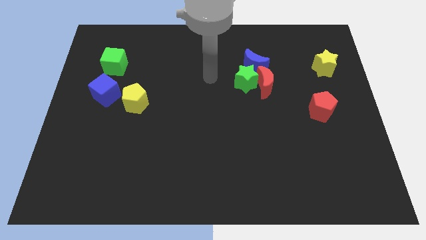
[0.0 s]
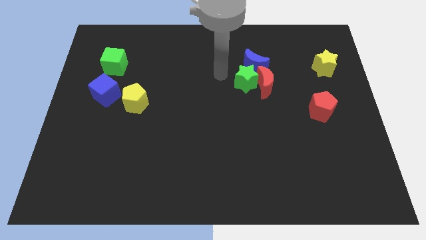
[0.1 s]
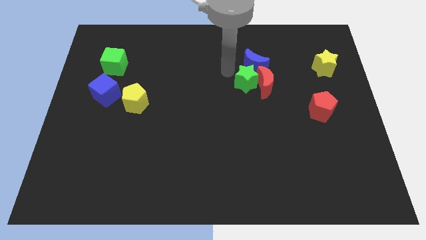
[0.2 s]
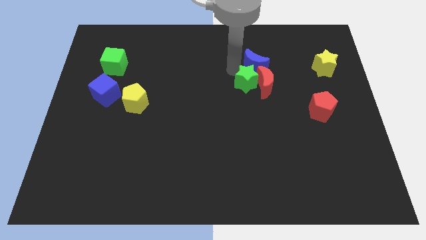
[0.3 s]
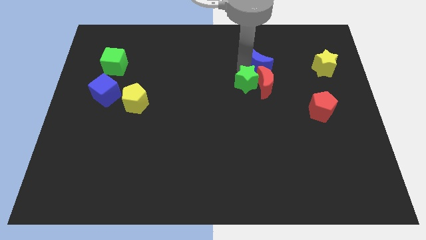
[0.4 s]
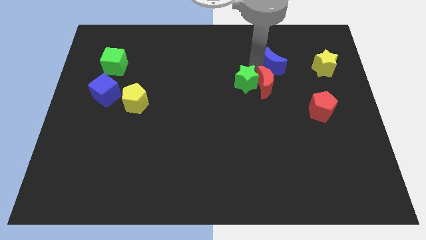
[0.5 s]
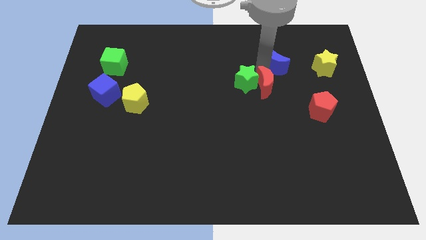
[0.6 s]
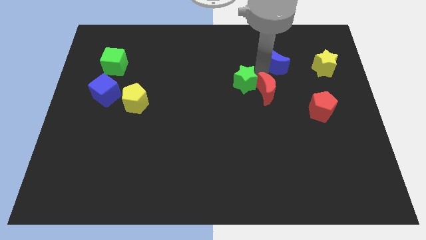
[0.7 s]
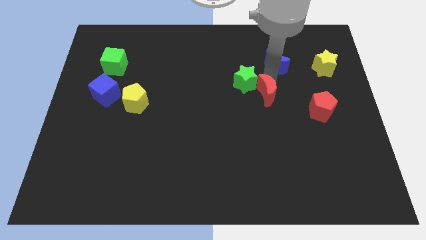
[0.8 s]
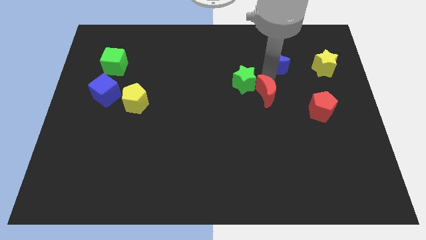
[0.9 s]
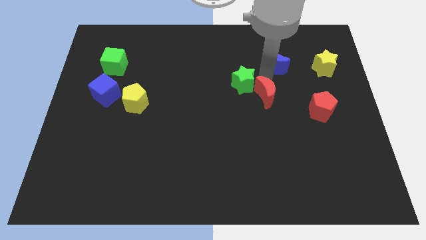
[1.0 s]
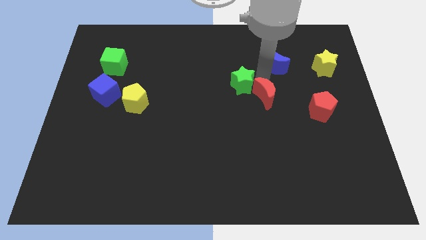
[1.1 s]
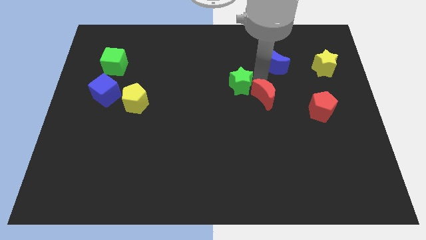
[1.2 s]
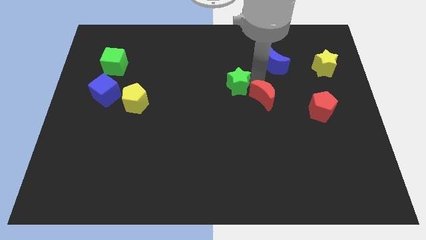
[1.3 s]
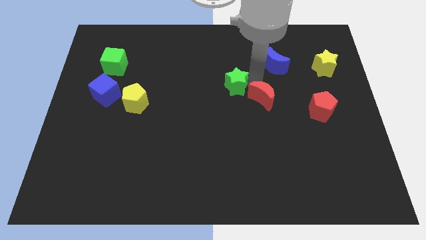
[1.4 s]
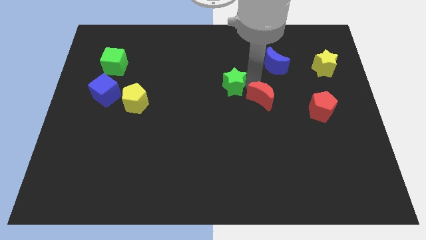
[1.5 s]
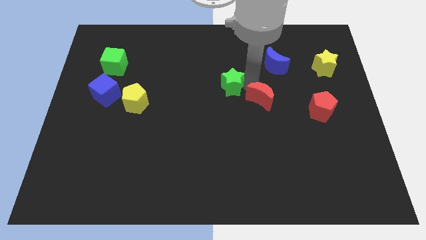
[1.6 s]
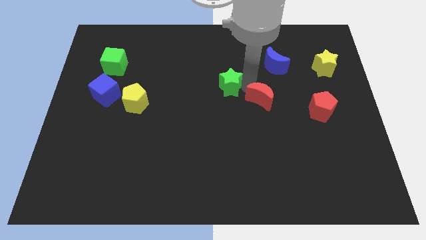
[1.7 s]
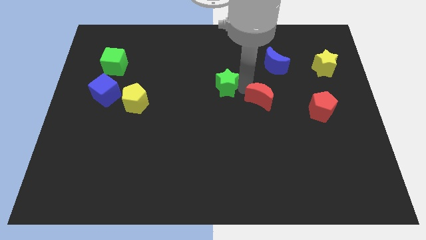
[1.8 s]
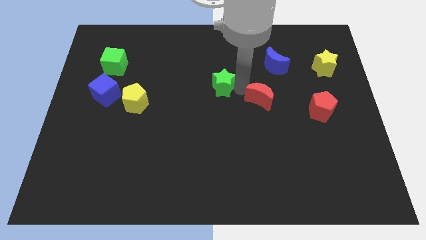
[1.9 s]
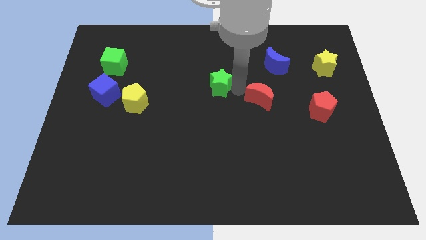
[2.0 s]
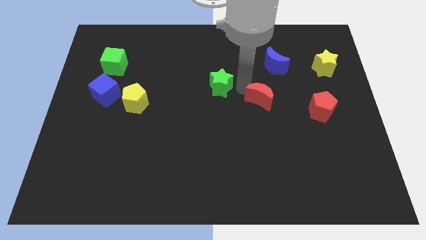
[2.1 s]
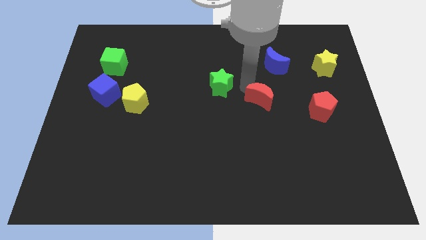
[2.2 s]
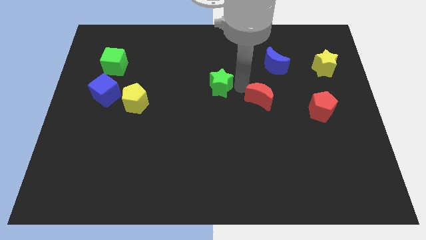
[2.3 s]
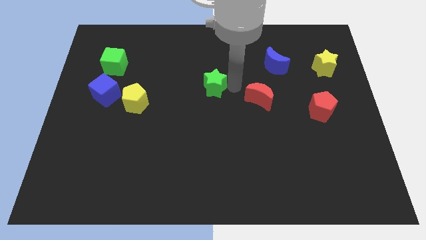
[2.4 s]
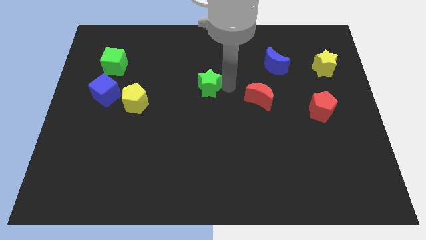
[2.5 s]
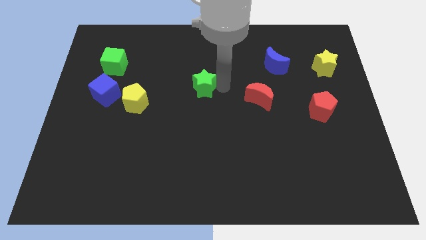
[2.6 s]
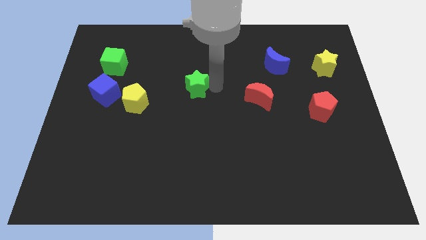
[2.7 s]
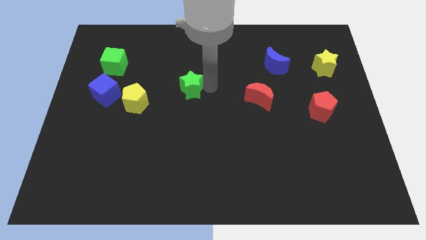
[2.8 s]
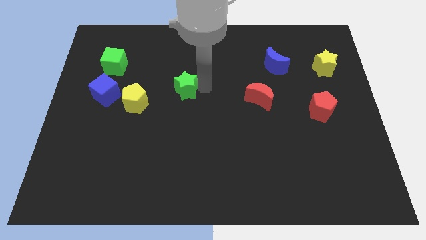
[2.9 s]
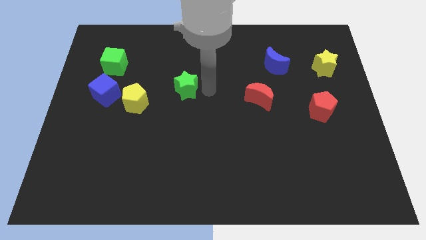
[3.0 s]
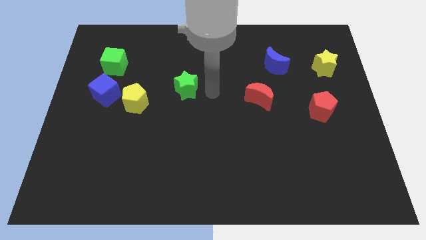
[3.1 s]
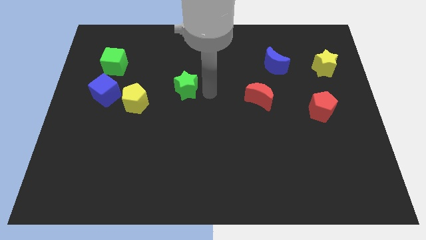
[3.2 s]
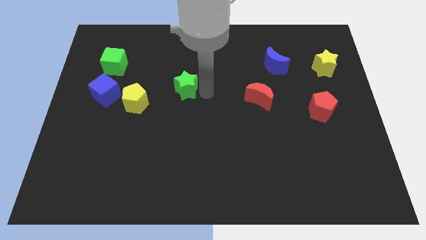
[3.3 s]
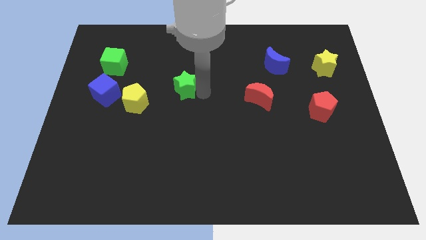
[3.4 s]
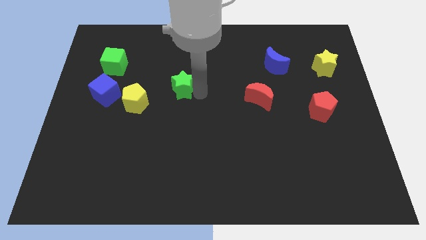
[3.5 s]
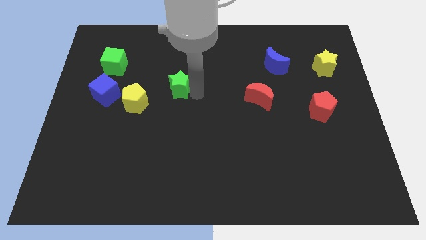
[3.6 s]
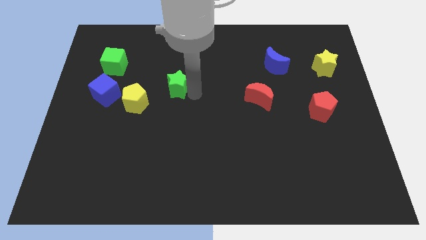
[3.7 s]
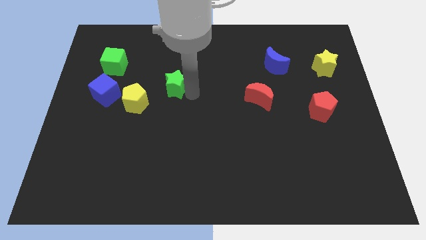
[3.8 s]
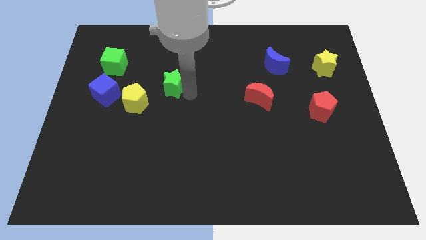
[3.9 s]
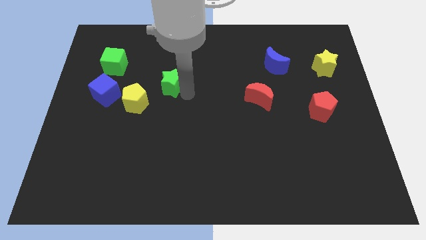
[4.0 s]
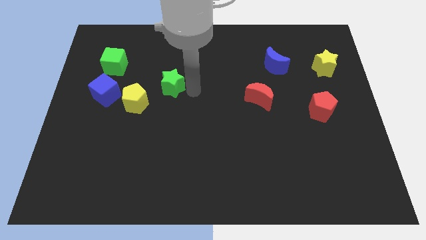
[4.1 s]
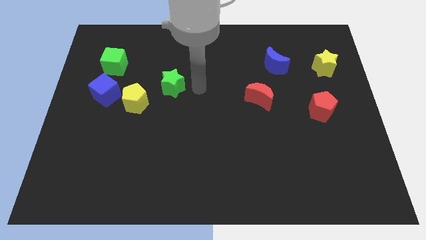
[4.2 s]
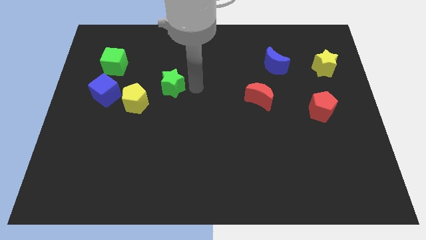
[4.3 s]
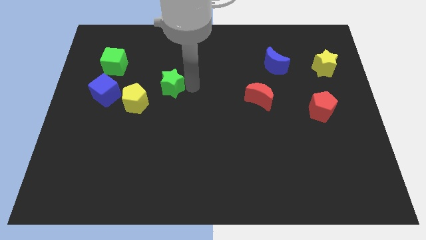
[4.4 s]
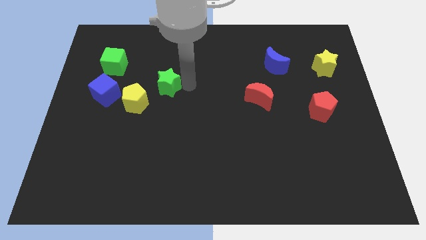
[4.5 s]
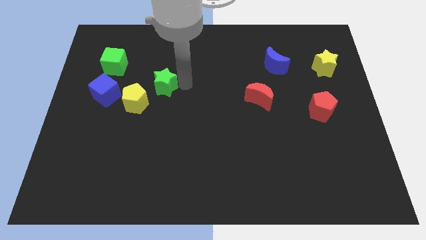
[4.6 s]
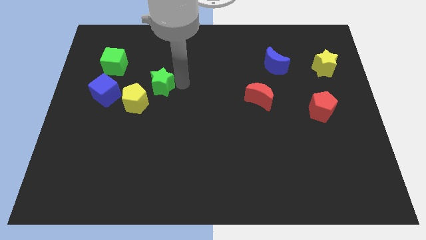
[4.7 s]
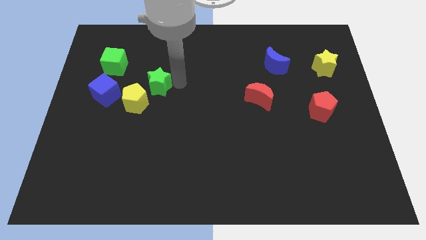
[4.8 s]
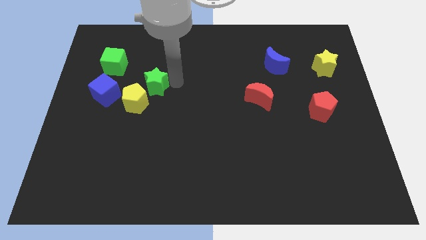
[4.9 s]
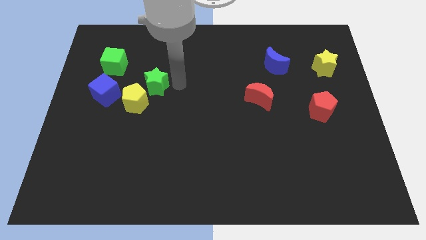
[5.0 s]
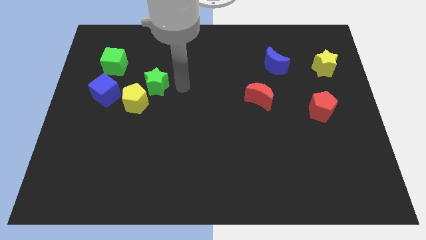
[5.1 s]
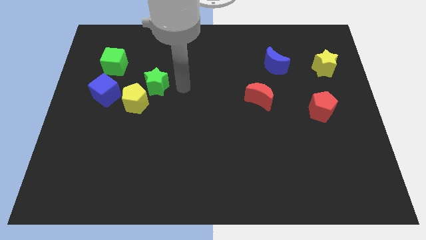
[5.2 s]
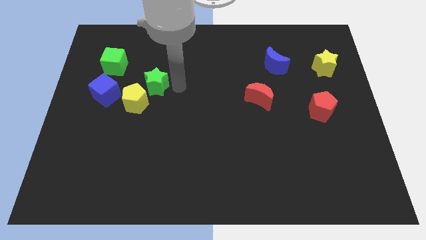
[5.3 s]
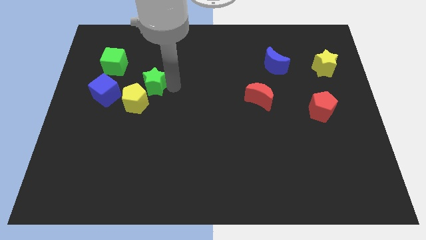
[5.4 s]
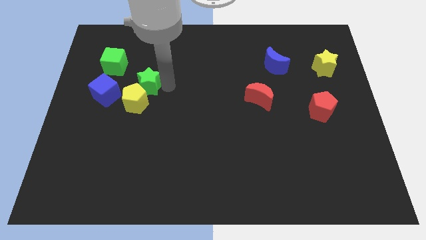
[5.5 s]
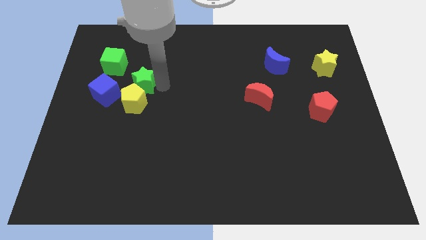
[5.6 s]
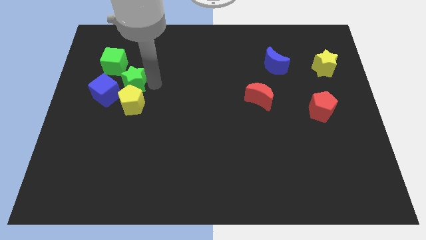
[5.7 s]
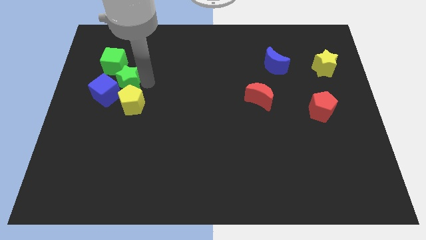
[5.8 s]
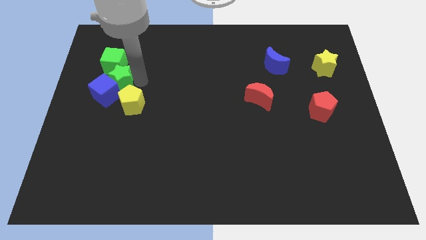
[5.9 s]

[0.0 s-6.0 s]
move the green star to the blue cube

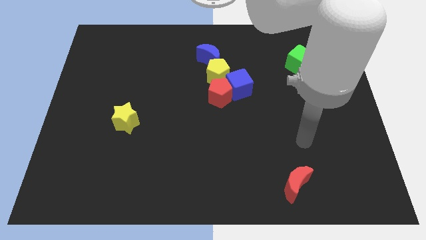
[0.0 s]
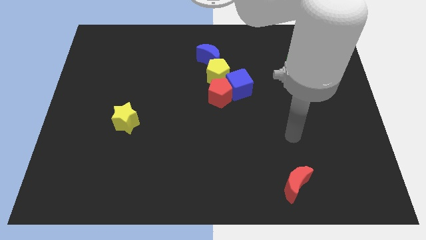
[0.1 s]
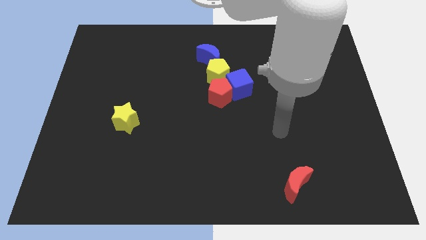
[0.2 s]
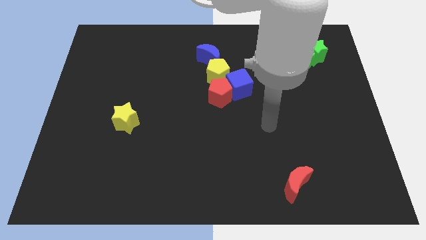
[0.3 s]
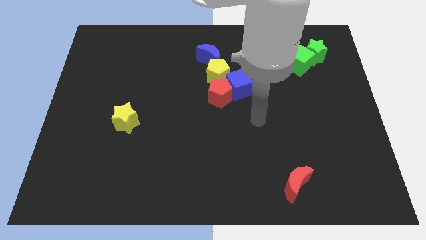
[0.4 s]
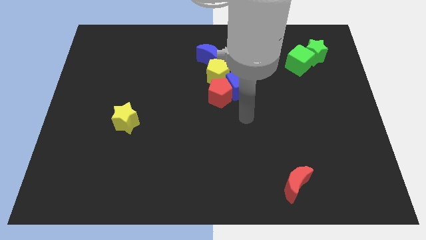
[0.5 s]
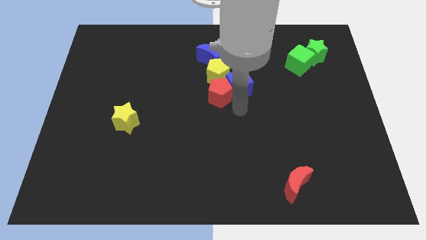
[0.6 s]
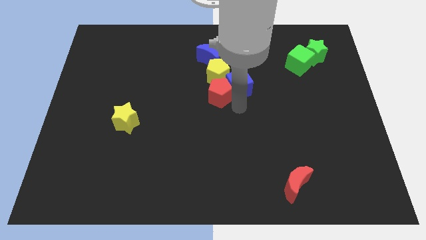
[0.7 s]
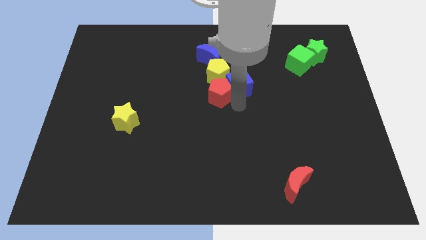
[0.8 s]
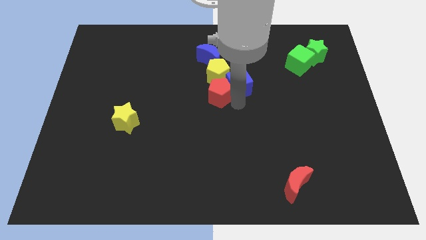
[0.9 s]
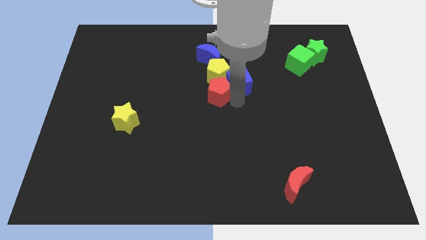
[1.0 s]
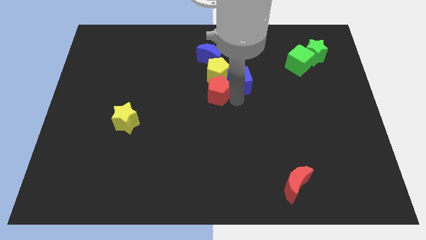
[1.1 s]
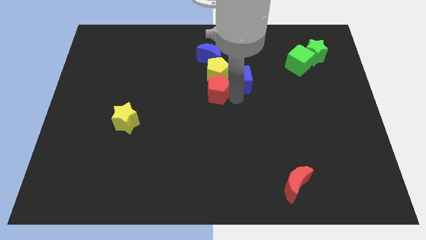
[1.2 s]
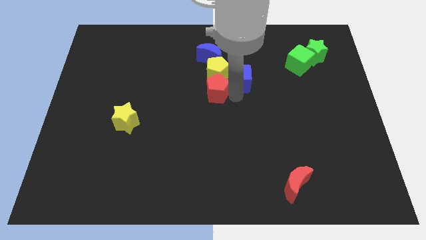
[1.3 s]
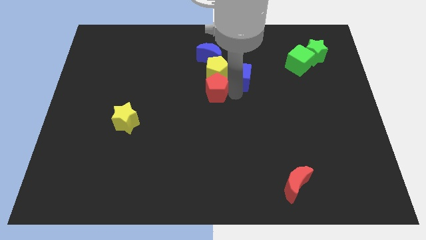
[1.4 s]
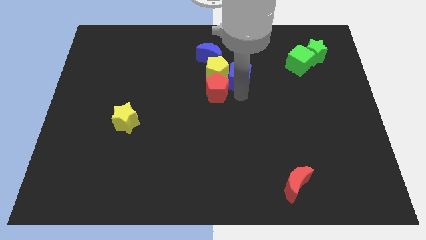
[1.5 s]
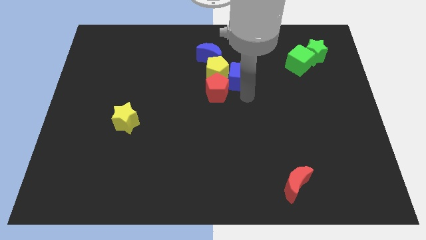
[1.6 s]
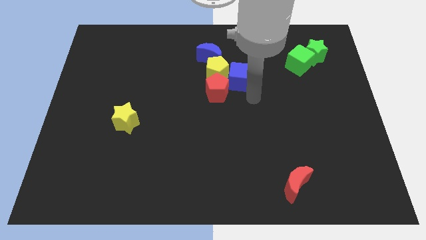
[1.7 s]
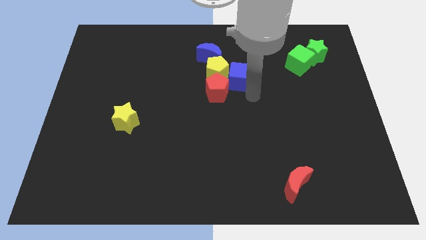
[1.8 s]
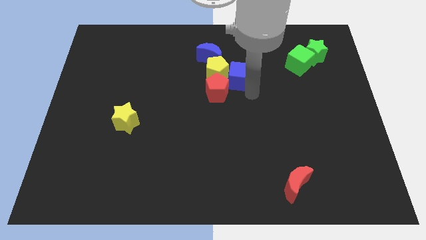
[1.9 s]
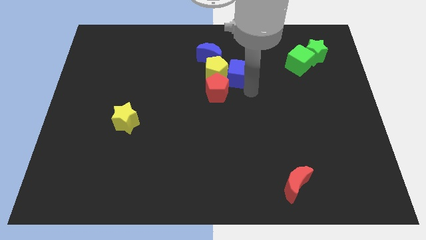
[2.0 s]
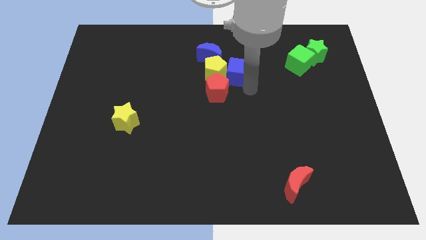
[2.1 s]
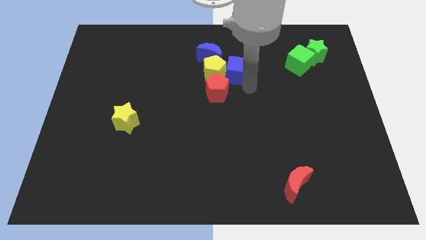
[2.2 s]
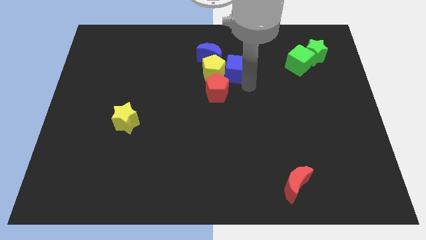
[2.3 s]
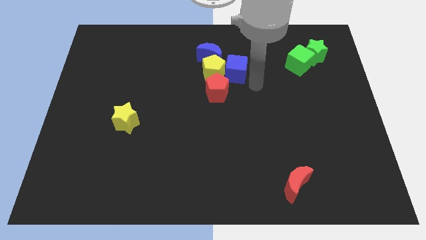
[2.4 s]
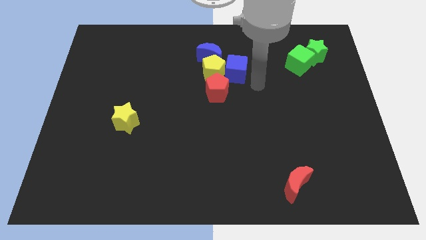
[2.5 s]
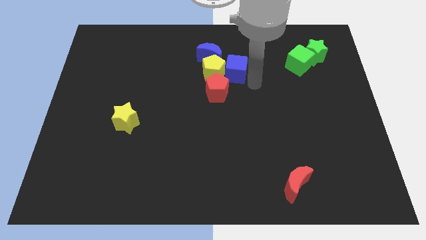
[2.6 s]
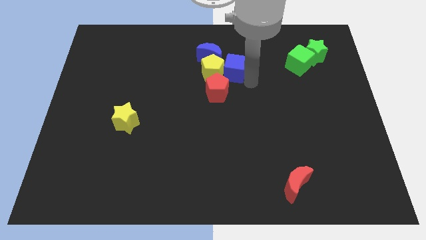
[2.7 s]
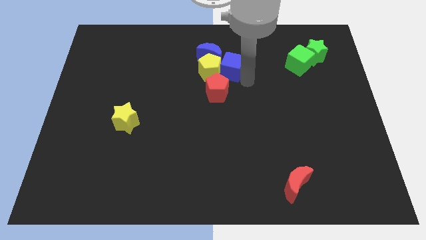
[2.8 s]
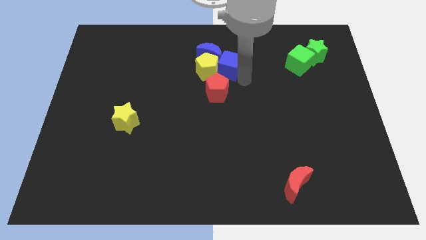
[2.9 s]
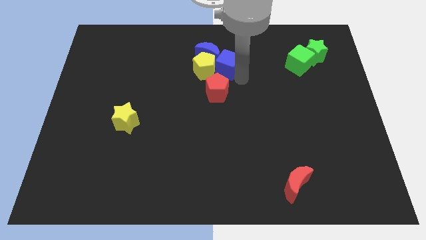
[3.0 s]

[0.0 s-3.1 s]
put the blue cube close to the blue moon
